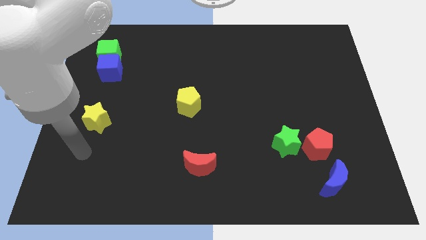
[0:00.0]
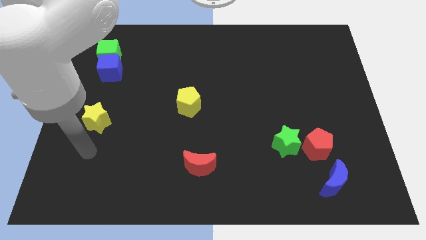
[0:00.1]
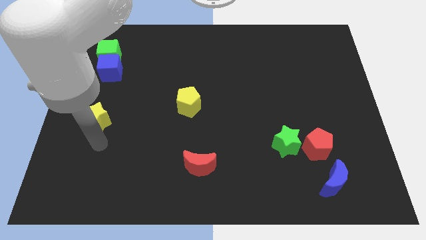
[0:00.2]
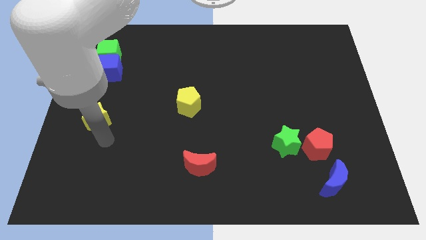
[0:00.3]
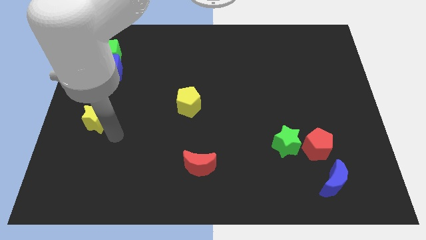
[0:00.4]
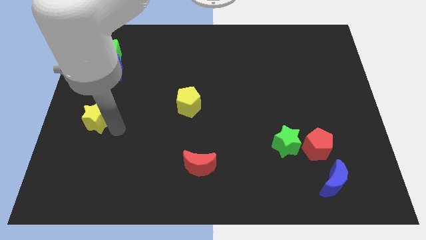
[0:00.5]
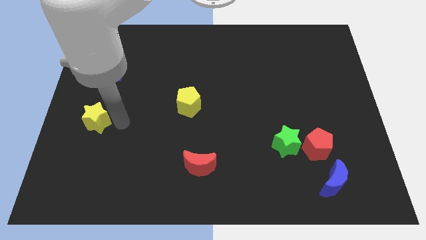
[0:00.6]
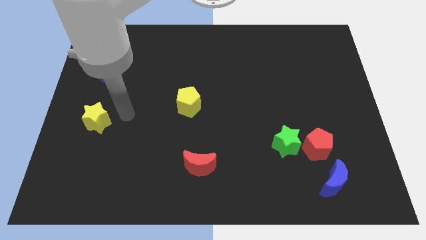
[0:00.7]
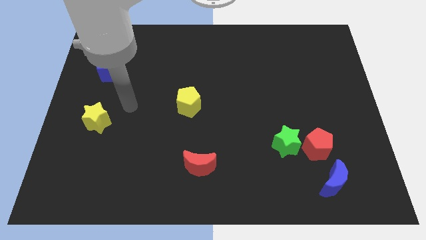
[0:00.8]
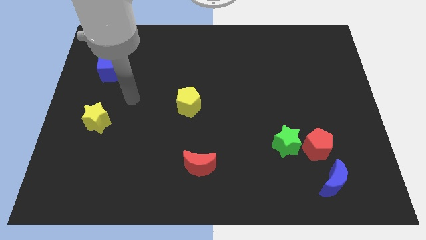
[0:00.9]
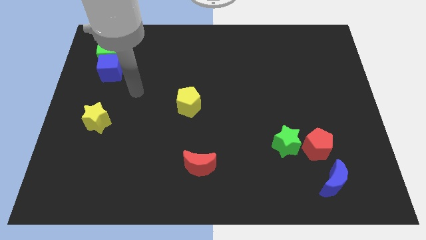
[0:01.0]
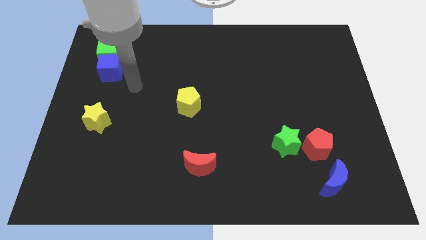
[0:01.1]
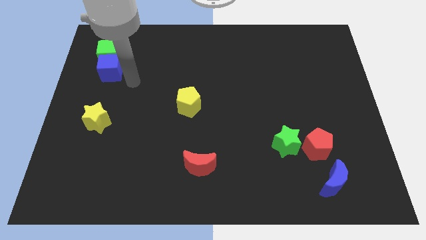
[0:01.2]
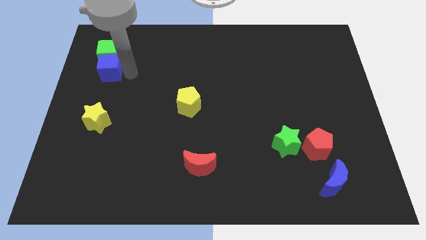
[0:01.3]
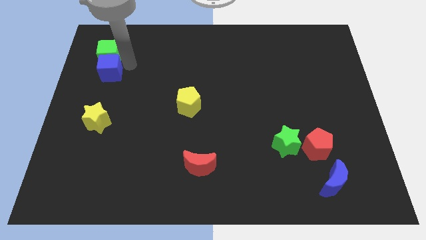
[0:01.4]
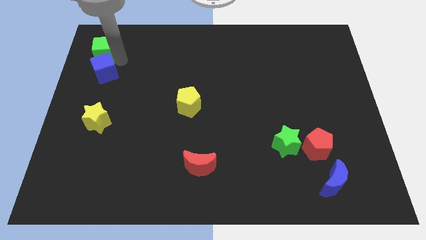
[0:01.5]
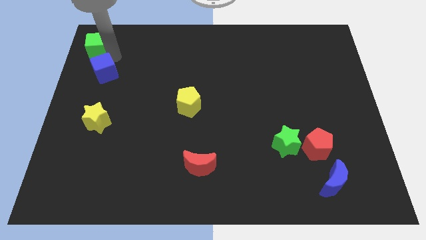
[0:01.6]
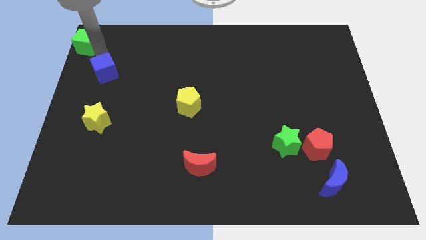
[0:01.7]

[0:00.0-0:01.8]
pull the blue cube apart from the green cube

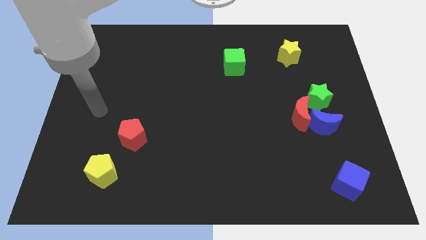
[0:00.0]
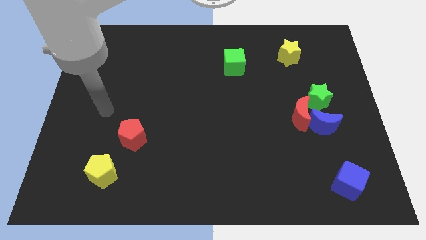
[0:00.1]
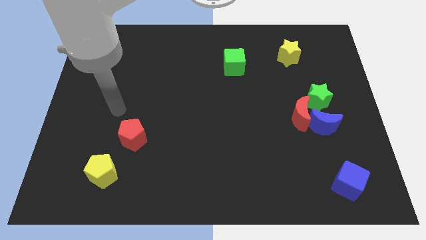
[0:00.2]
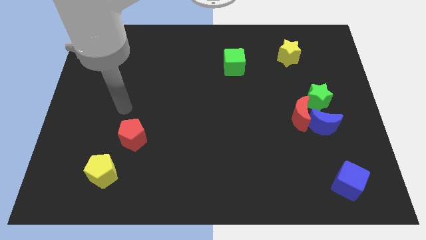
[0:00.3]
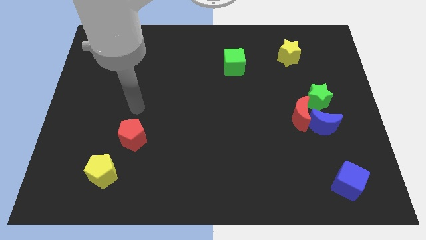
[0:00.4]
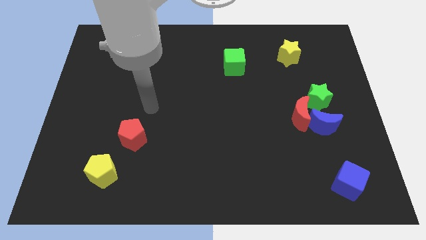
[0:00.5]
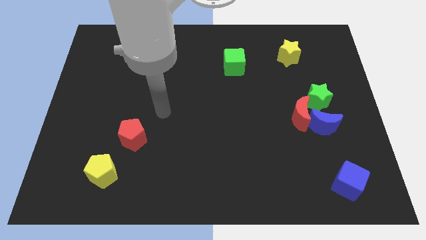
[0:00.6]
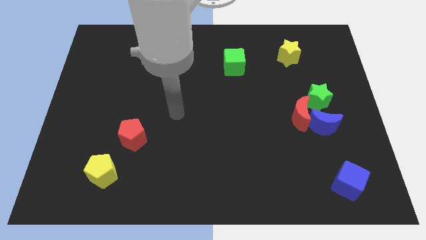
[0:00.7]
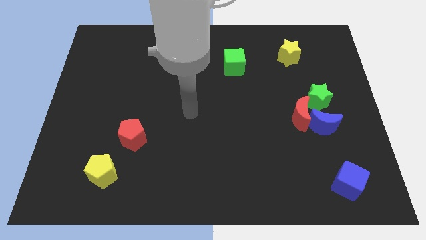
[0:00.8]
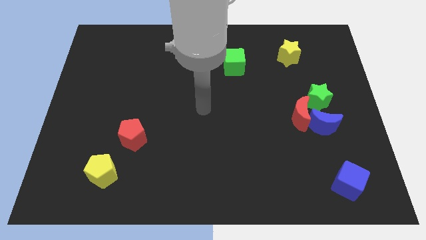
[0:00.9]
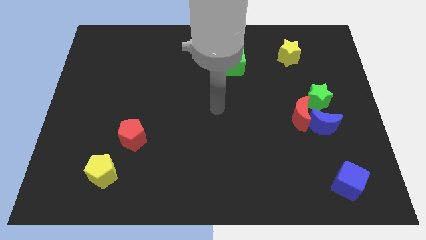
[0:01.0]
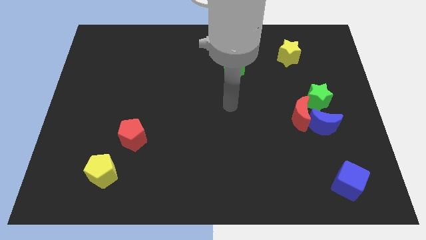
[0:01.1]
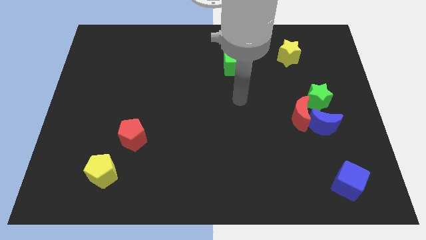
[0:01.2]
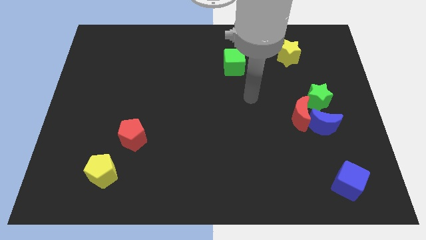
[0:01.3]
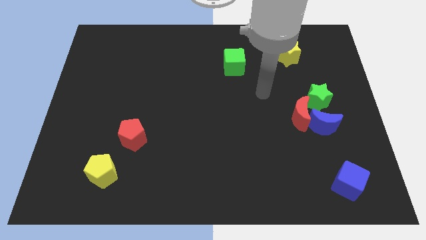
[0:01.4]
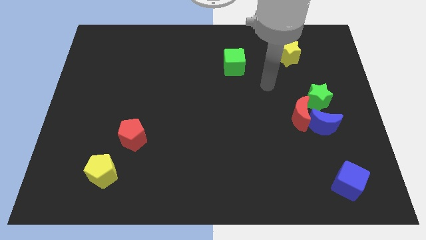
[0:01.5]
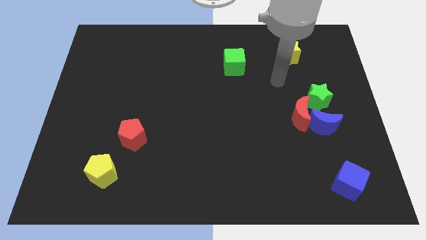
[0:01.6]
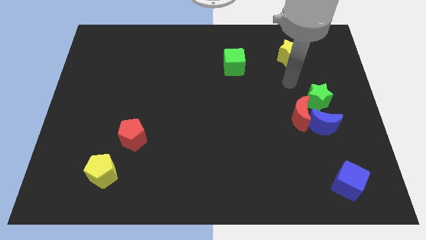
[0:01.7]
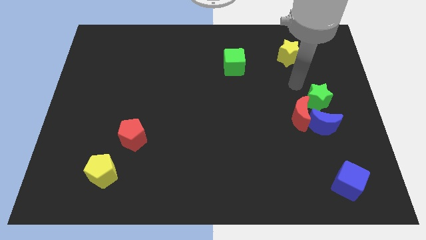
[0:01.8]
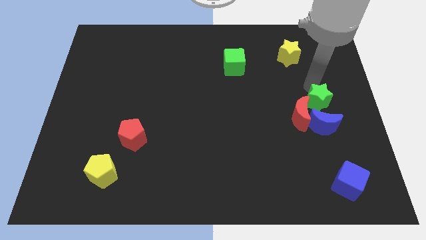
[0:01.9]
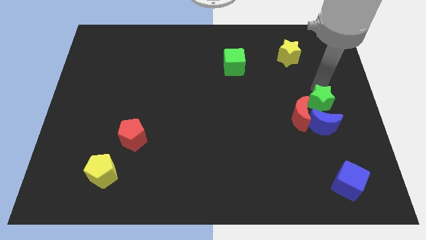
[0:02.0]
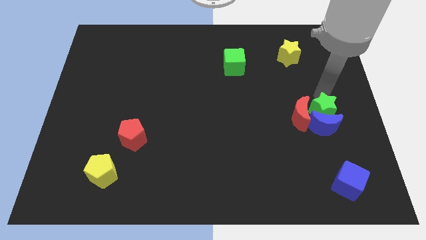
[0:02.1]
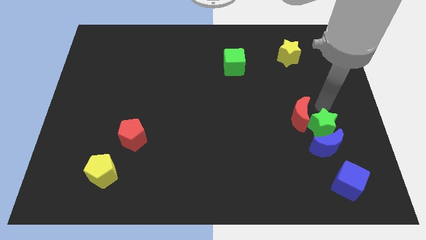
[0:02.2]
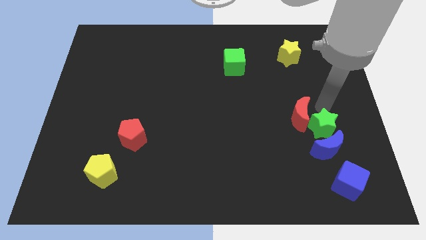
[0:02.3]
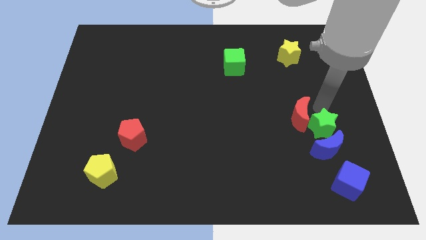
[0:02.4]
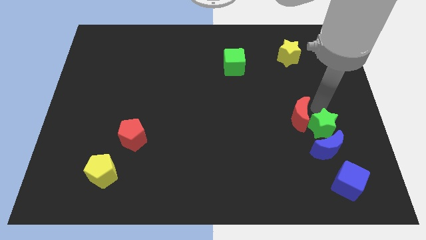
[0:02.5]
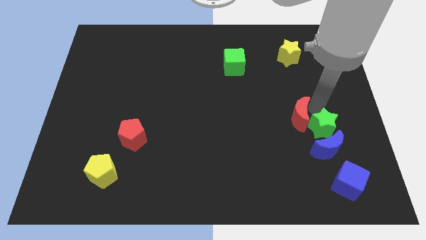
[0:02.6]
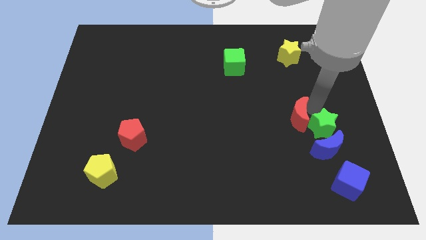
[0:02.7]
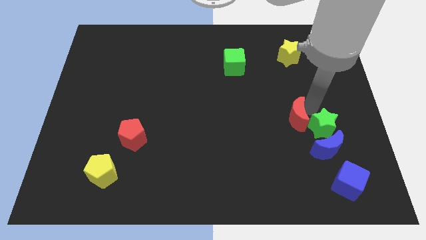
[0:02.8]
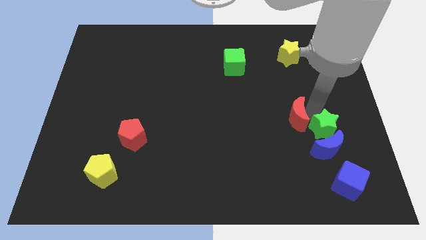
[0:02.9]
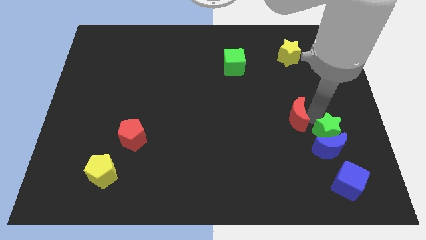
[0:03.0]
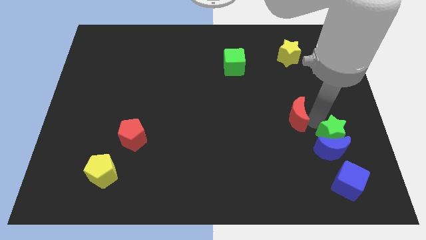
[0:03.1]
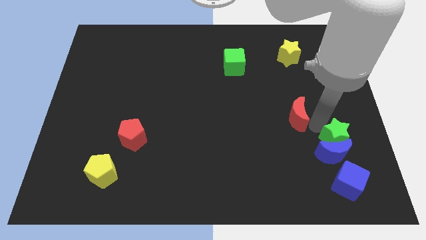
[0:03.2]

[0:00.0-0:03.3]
move the red moon away from the blue moon and green star

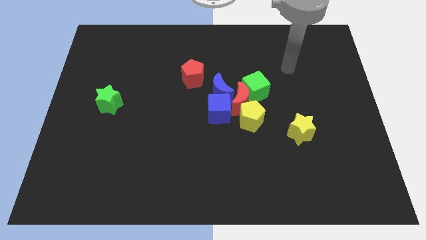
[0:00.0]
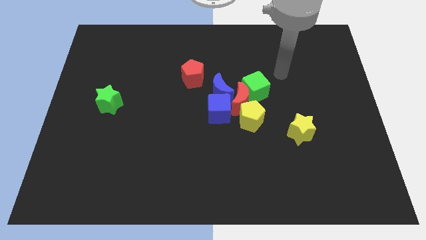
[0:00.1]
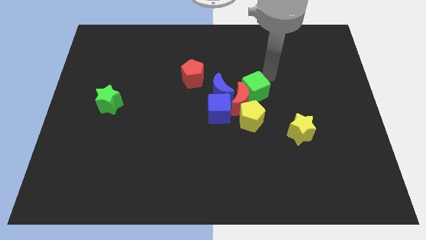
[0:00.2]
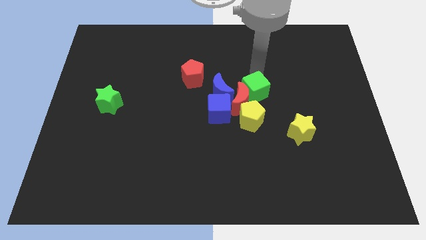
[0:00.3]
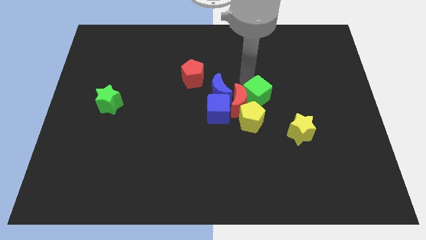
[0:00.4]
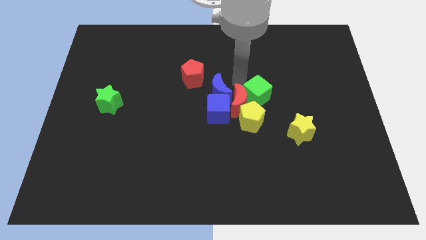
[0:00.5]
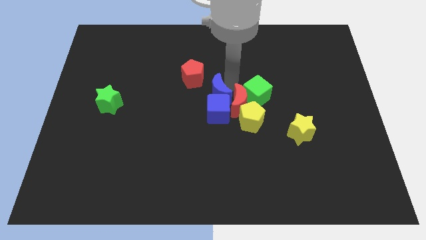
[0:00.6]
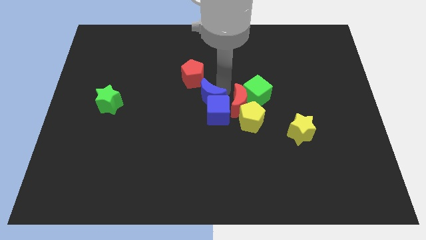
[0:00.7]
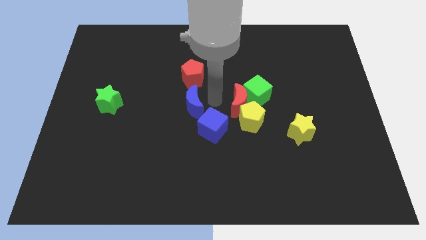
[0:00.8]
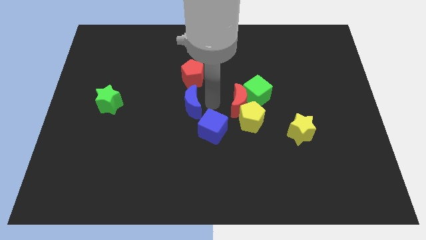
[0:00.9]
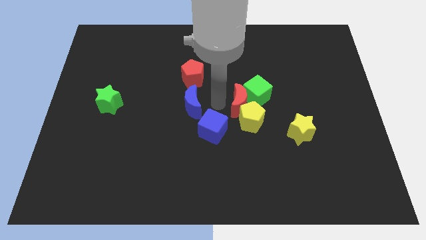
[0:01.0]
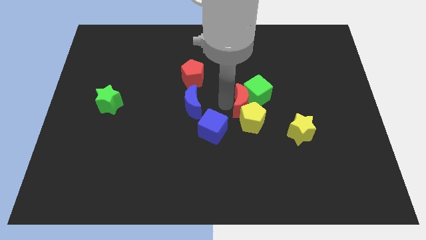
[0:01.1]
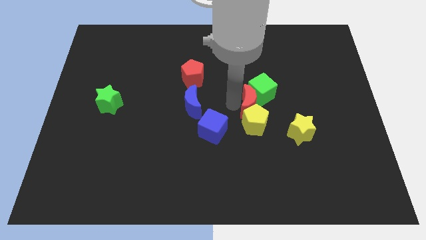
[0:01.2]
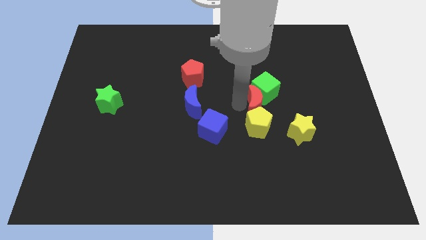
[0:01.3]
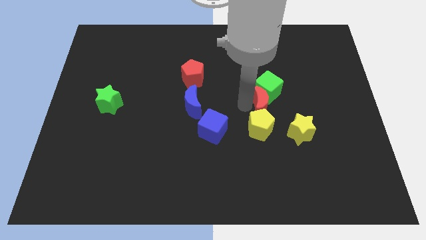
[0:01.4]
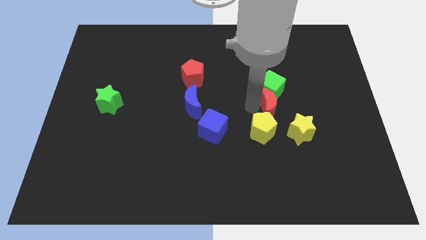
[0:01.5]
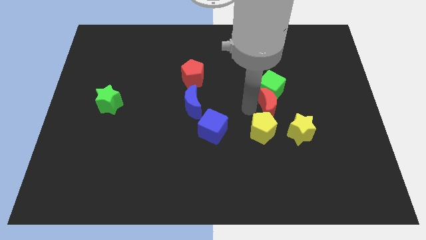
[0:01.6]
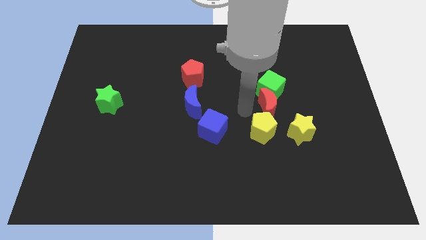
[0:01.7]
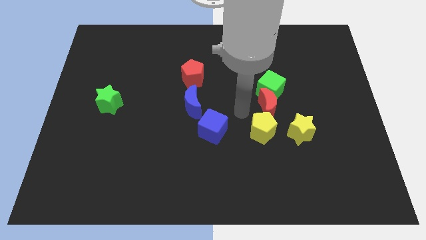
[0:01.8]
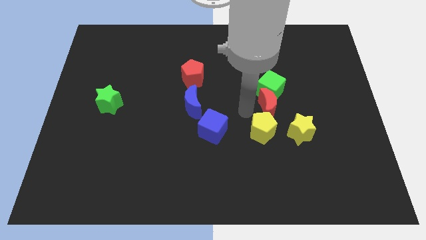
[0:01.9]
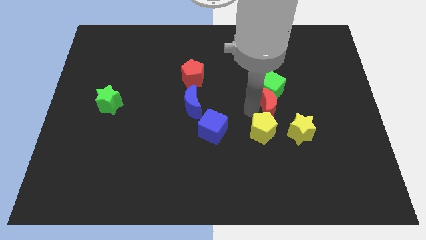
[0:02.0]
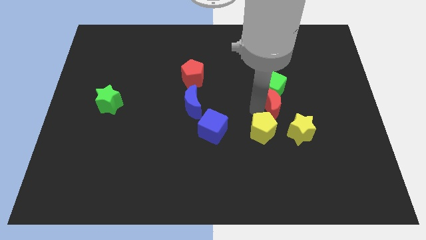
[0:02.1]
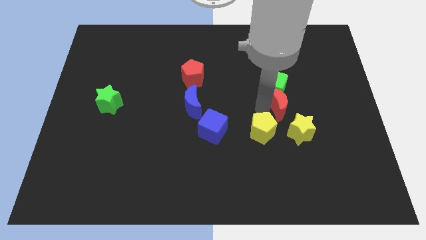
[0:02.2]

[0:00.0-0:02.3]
pull the red moon apart from the clump

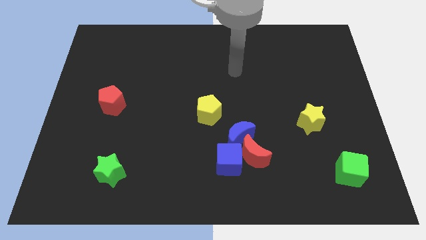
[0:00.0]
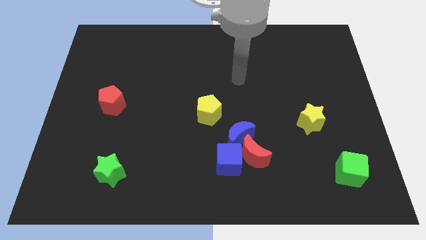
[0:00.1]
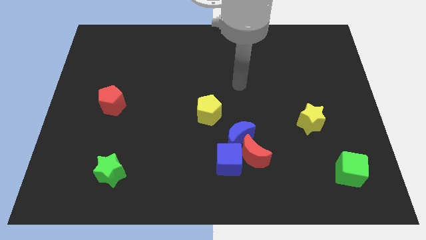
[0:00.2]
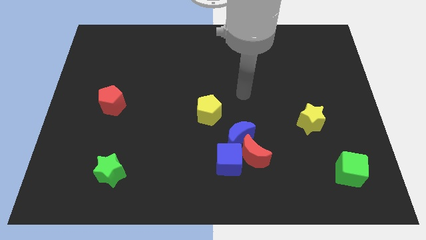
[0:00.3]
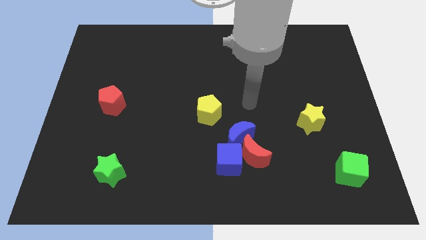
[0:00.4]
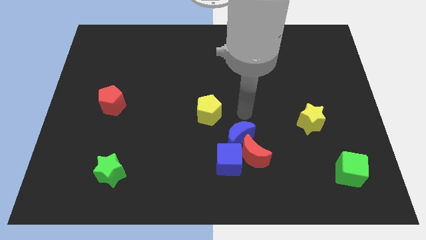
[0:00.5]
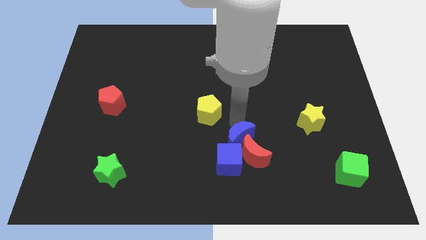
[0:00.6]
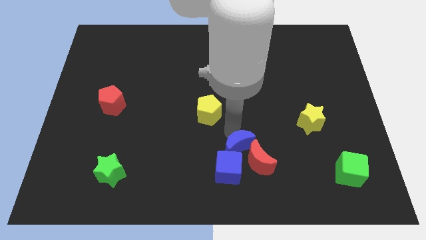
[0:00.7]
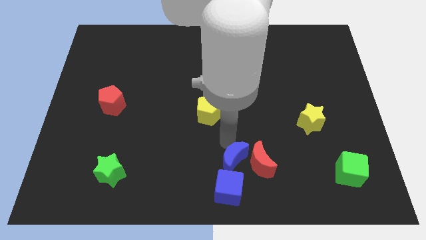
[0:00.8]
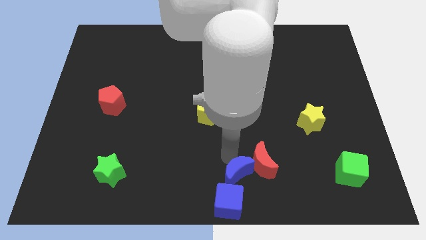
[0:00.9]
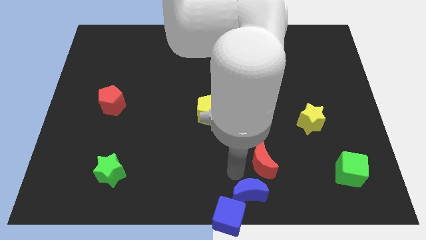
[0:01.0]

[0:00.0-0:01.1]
separate the red moon from the blue cube and blue moon

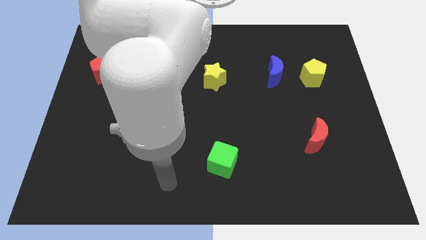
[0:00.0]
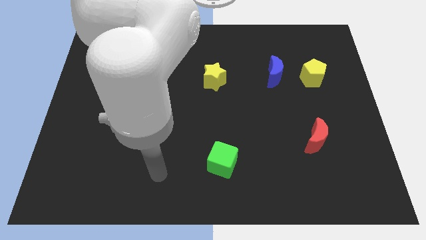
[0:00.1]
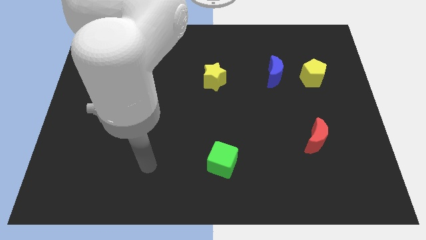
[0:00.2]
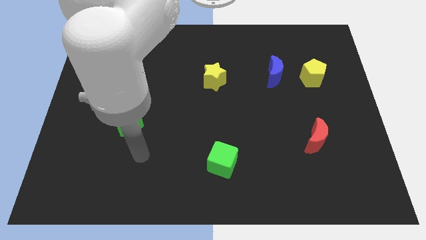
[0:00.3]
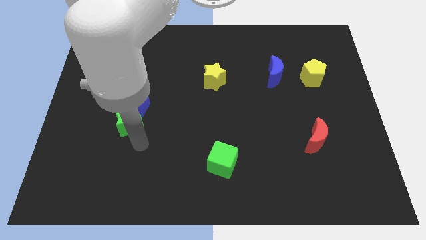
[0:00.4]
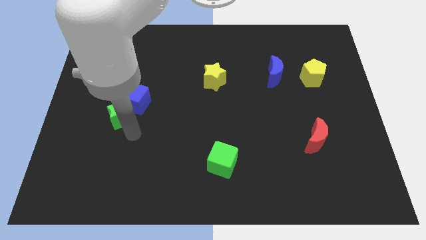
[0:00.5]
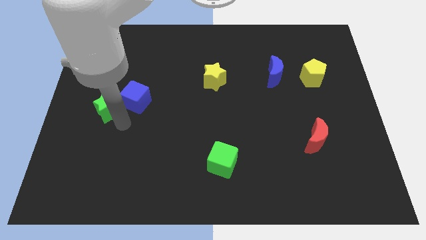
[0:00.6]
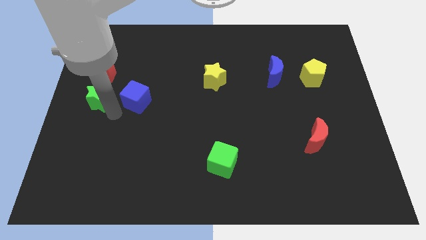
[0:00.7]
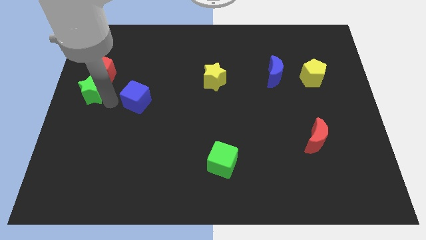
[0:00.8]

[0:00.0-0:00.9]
pull the blue cube apart from the green star
